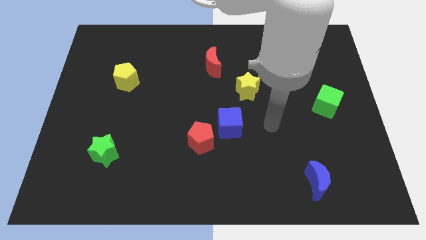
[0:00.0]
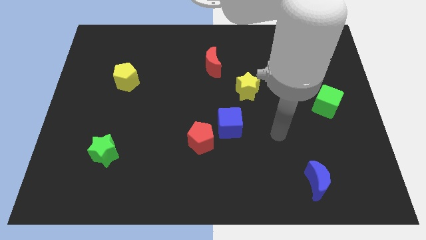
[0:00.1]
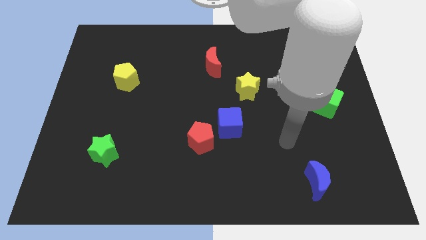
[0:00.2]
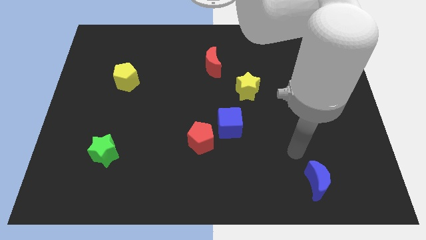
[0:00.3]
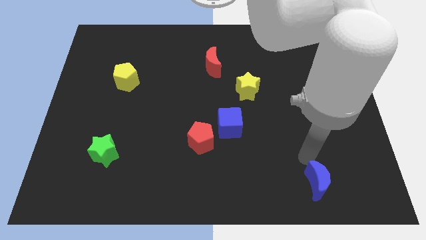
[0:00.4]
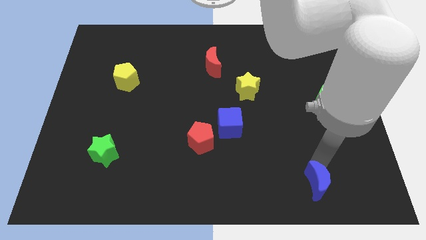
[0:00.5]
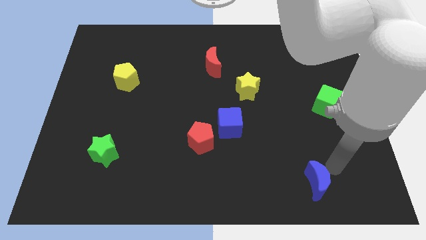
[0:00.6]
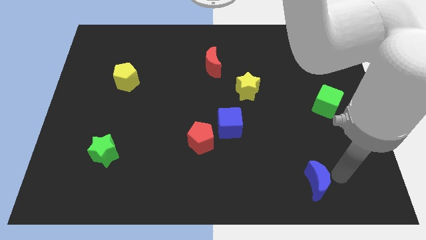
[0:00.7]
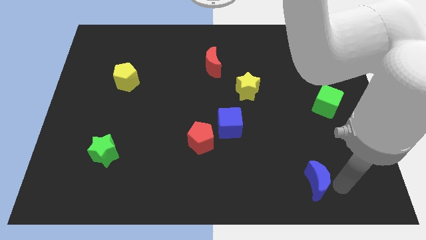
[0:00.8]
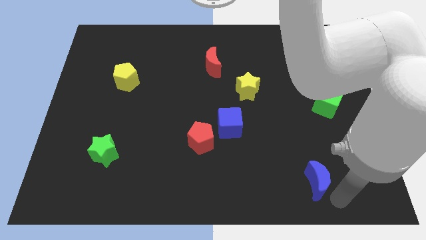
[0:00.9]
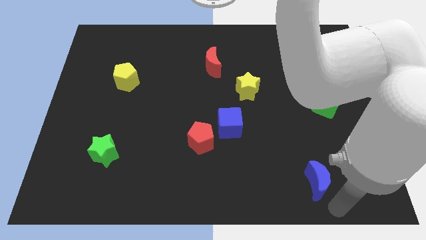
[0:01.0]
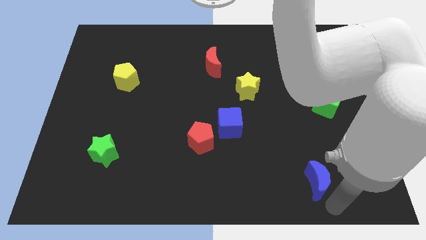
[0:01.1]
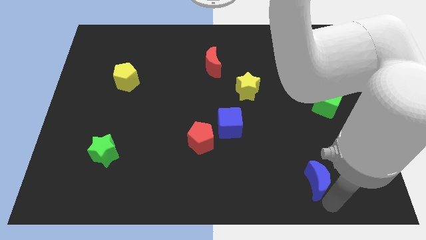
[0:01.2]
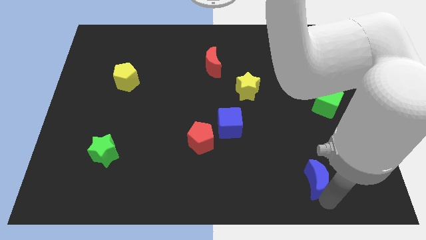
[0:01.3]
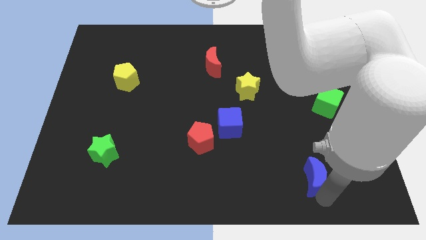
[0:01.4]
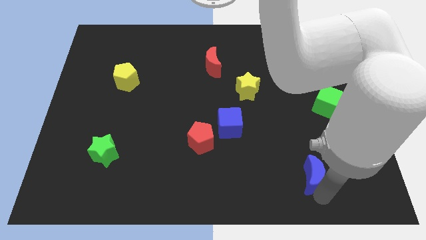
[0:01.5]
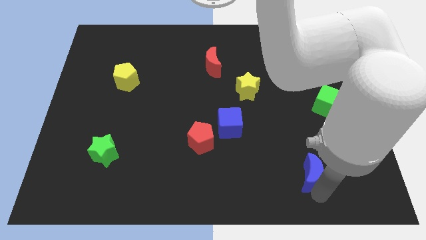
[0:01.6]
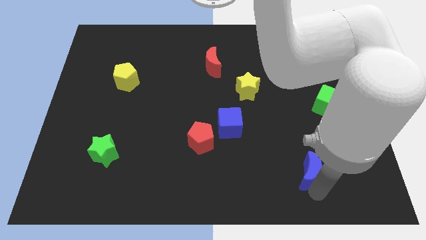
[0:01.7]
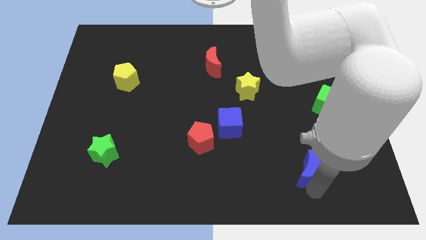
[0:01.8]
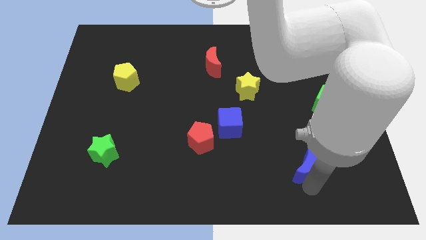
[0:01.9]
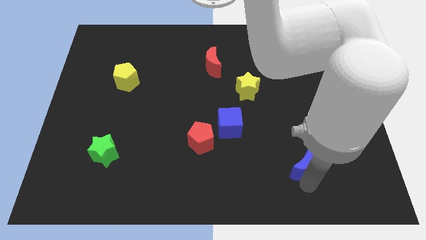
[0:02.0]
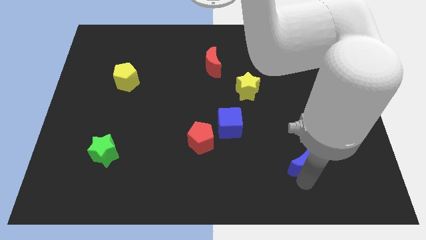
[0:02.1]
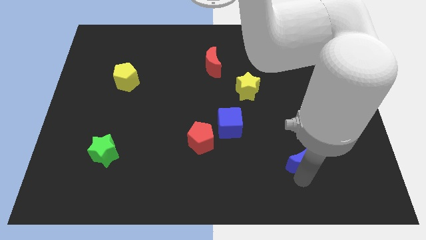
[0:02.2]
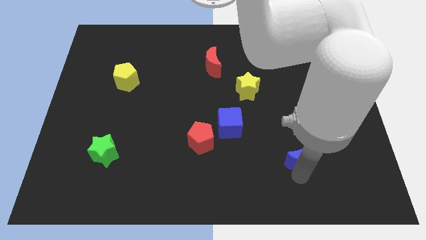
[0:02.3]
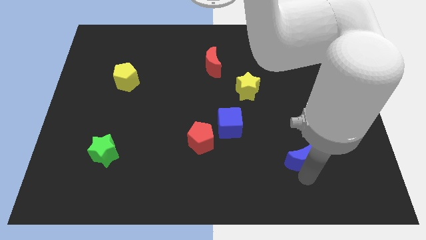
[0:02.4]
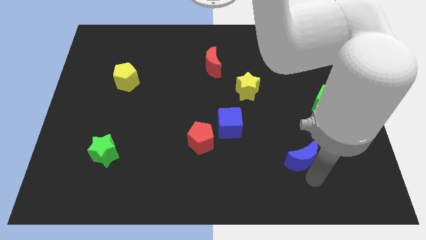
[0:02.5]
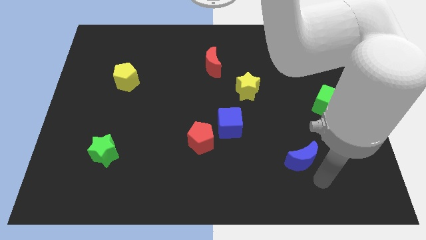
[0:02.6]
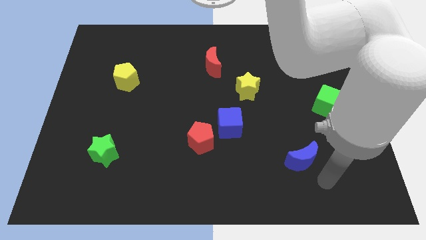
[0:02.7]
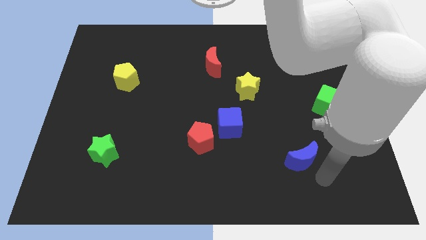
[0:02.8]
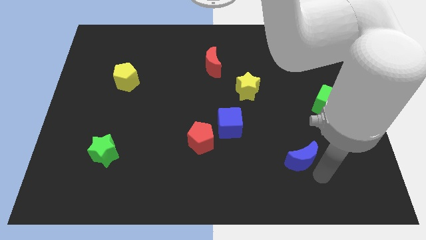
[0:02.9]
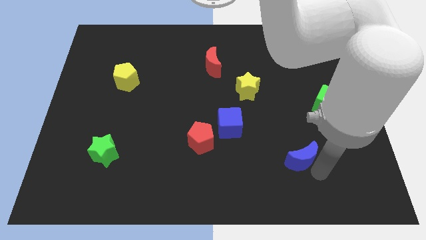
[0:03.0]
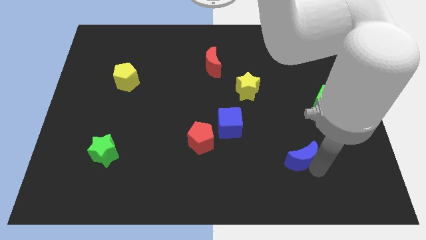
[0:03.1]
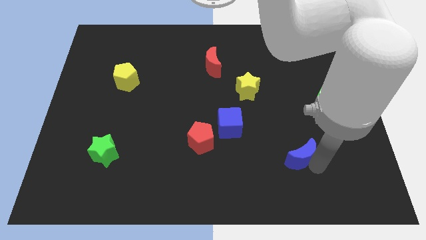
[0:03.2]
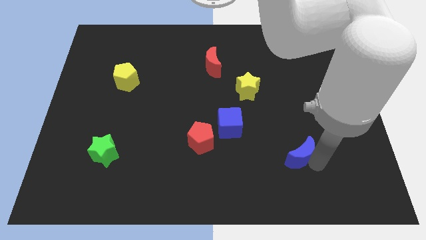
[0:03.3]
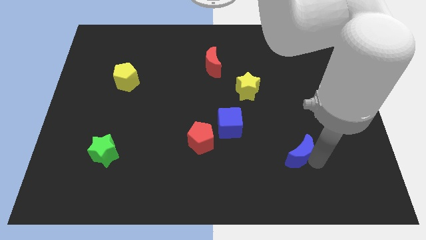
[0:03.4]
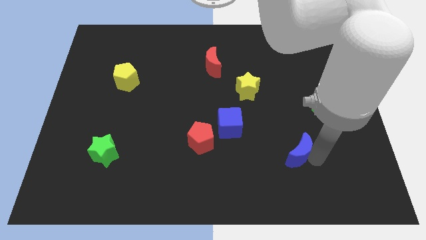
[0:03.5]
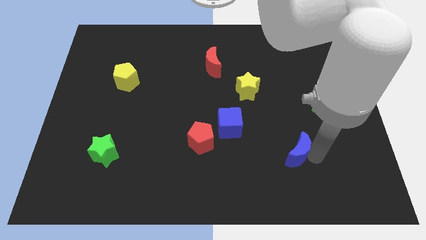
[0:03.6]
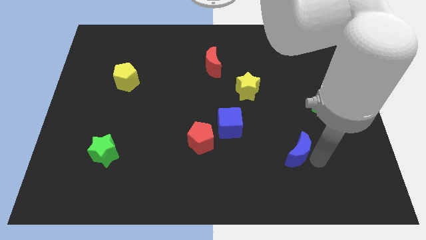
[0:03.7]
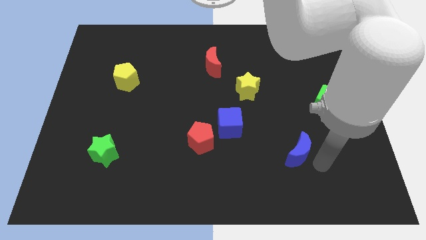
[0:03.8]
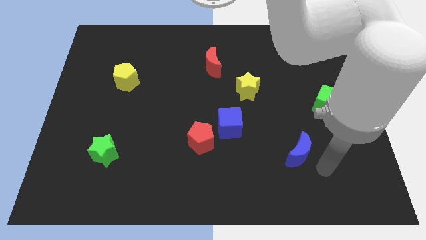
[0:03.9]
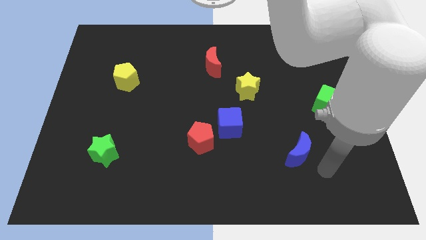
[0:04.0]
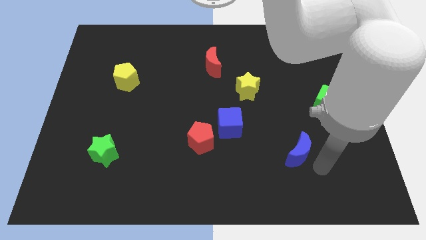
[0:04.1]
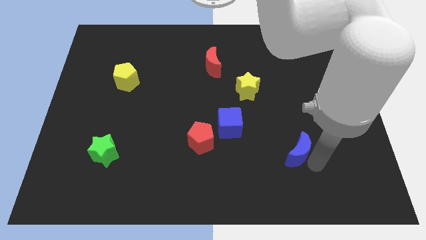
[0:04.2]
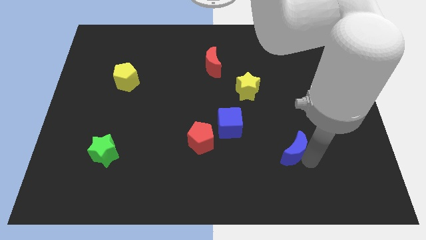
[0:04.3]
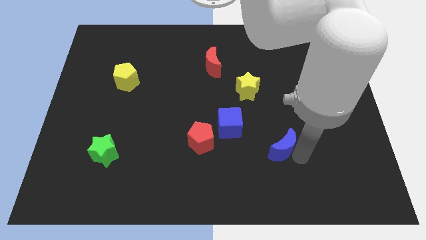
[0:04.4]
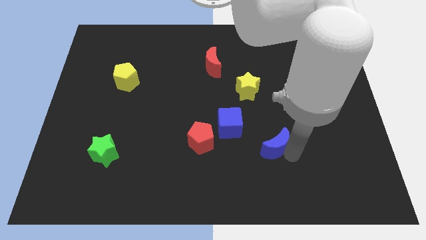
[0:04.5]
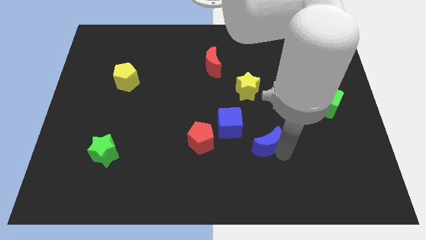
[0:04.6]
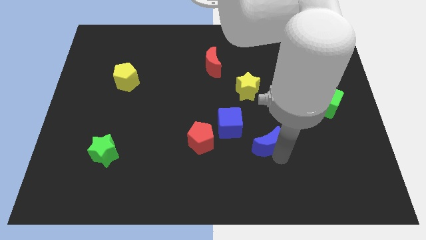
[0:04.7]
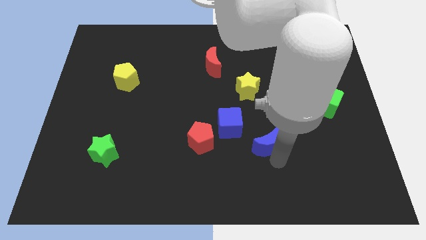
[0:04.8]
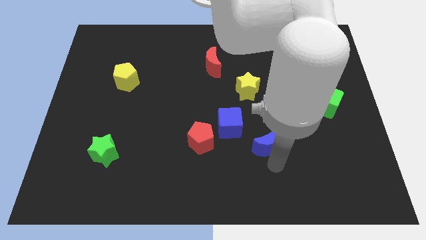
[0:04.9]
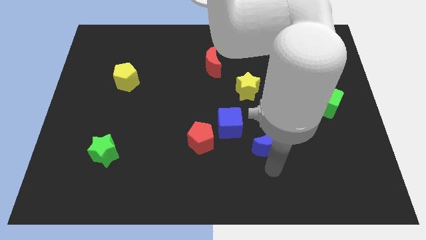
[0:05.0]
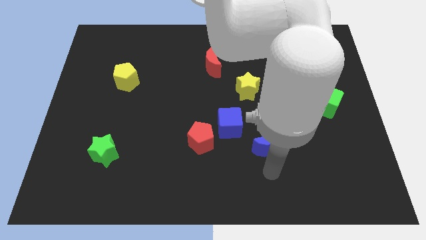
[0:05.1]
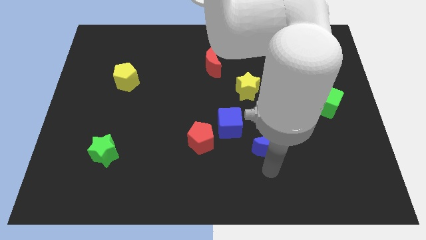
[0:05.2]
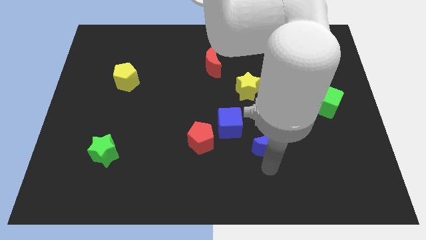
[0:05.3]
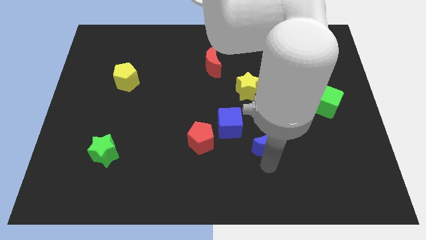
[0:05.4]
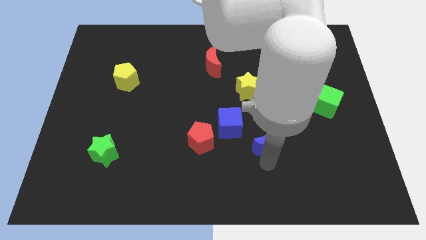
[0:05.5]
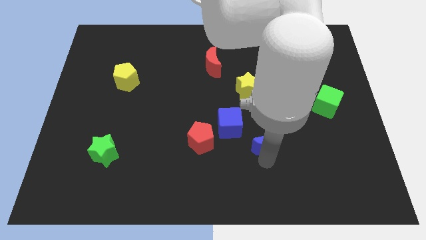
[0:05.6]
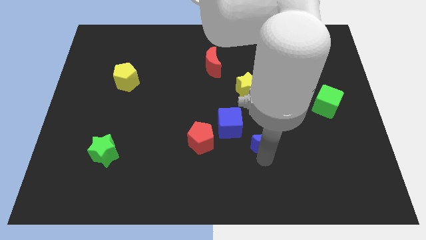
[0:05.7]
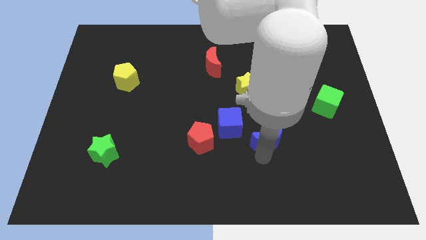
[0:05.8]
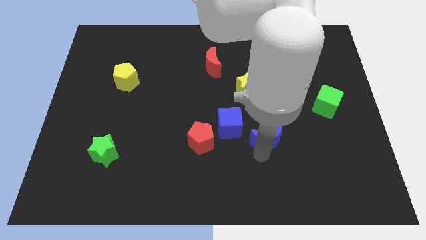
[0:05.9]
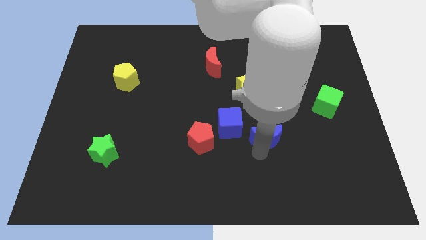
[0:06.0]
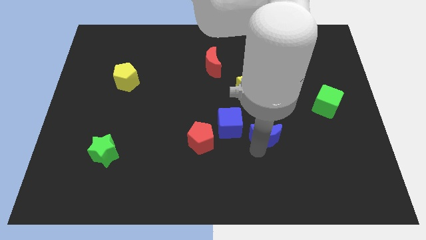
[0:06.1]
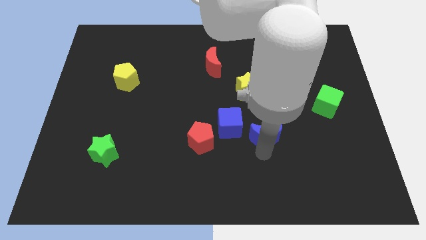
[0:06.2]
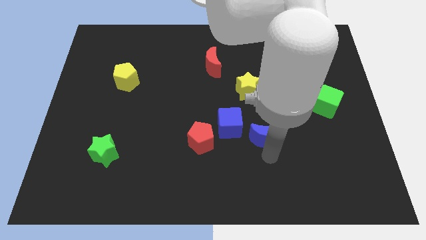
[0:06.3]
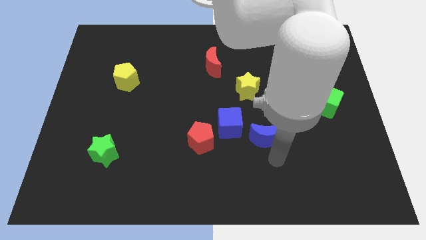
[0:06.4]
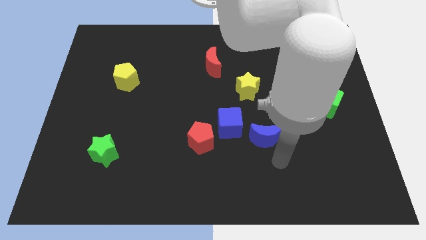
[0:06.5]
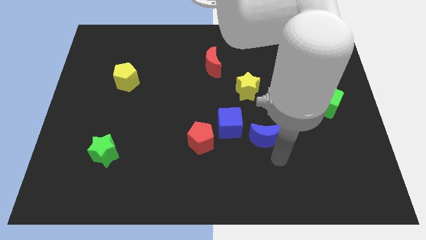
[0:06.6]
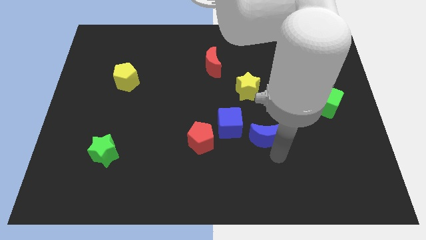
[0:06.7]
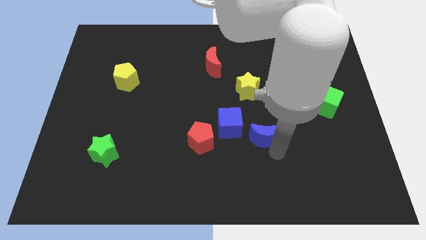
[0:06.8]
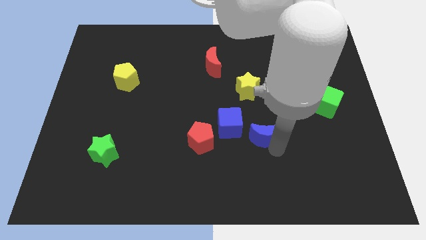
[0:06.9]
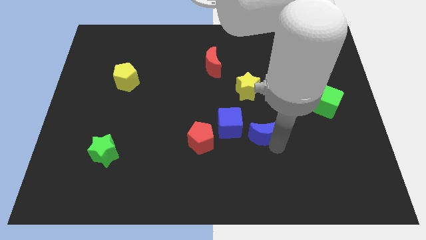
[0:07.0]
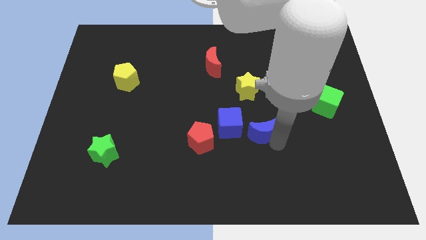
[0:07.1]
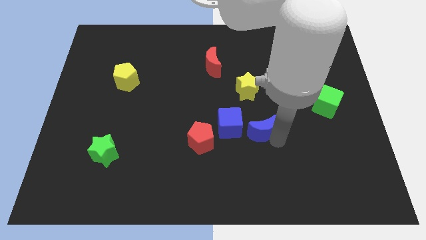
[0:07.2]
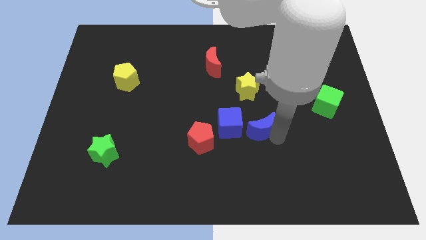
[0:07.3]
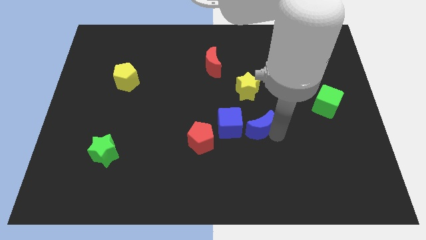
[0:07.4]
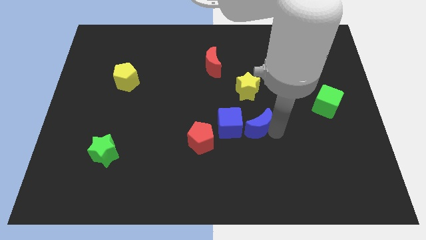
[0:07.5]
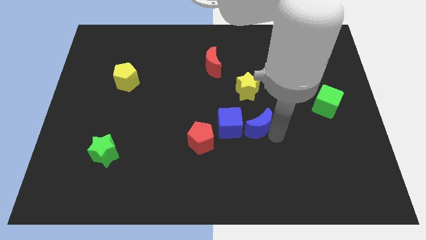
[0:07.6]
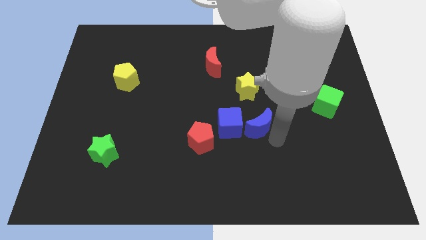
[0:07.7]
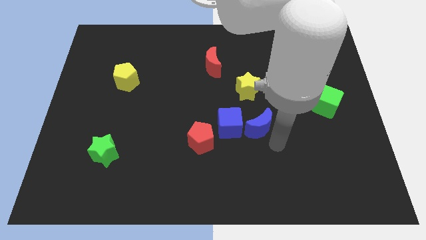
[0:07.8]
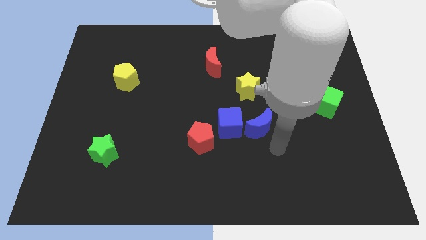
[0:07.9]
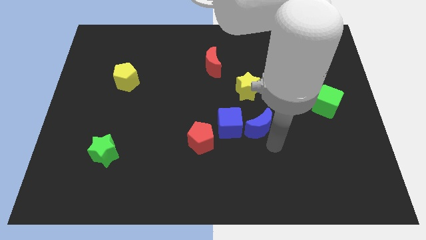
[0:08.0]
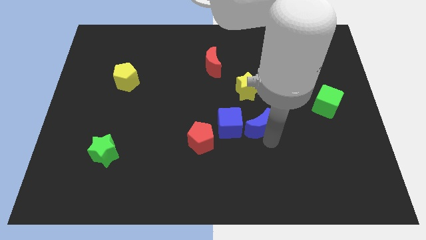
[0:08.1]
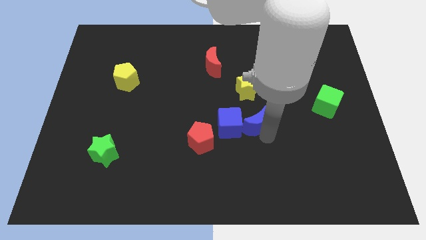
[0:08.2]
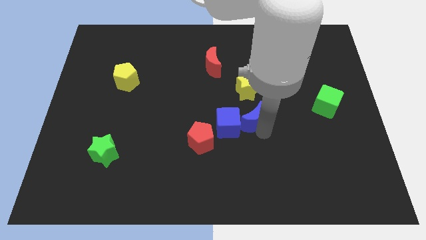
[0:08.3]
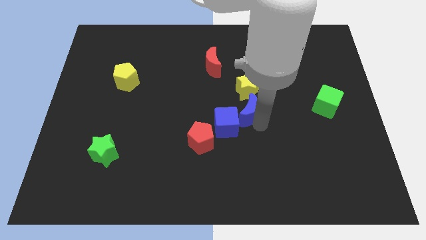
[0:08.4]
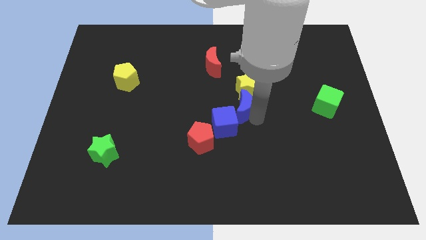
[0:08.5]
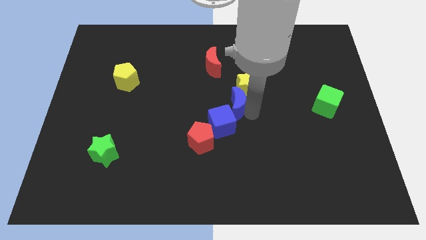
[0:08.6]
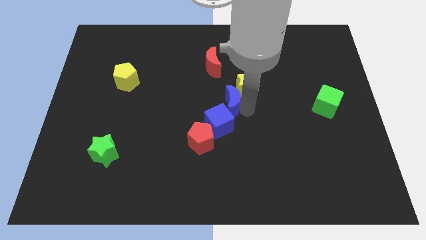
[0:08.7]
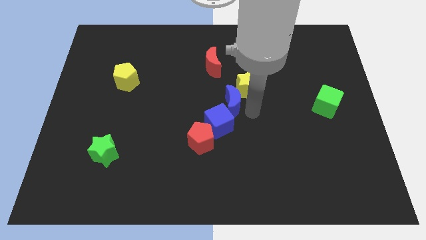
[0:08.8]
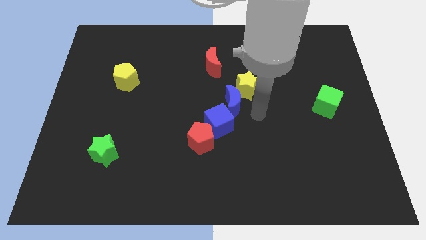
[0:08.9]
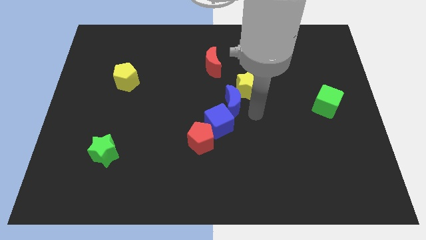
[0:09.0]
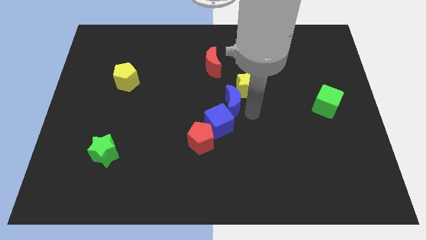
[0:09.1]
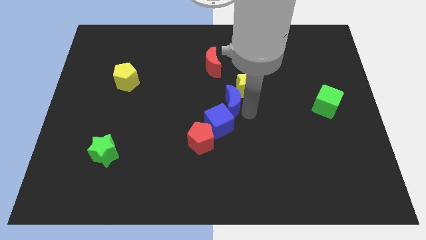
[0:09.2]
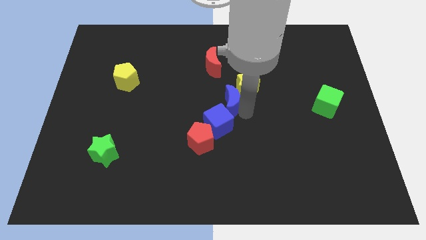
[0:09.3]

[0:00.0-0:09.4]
put the blue moon below the red moon
